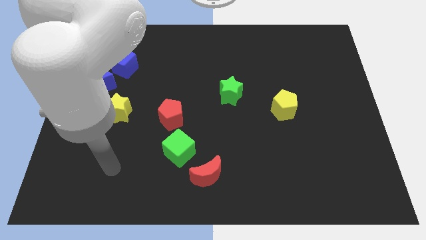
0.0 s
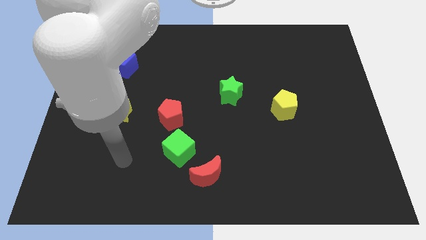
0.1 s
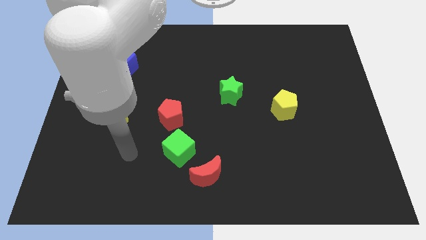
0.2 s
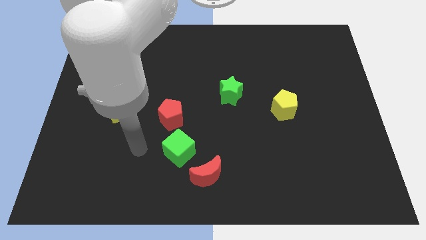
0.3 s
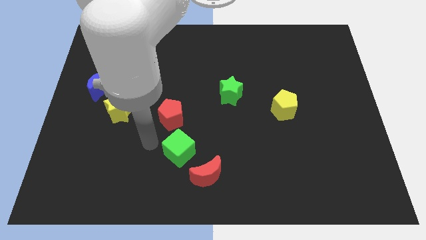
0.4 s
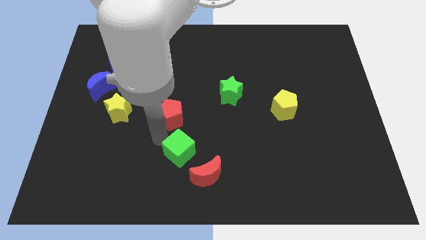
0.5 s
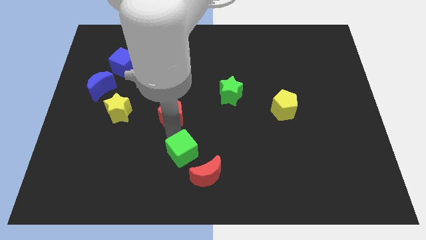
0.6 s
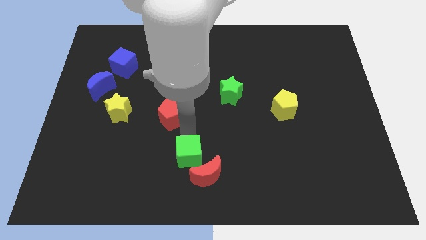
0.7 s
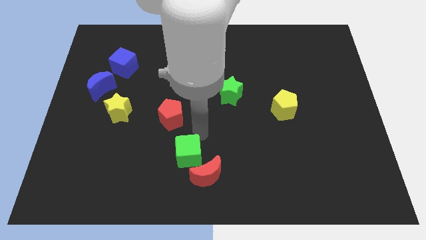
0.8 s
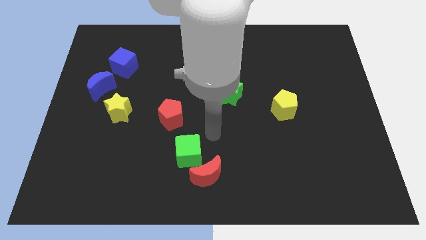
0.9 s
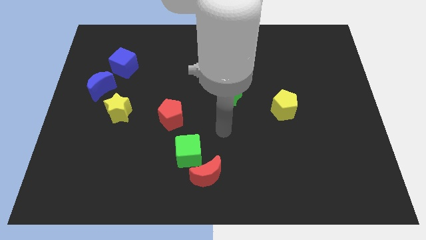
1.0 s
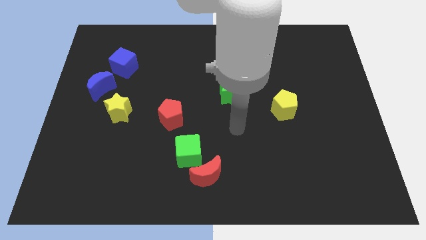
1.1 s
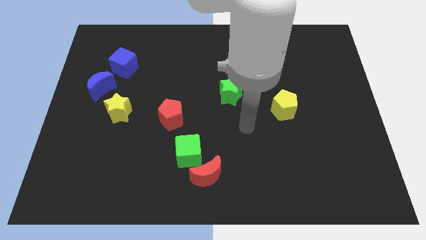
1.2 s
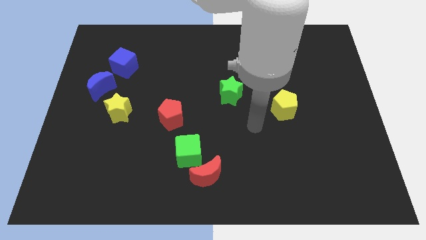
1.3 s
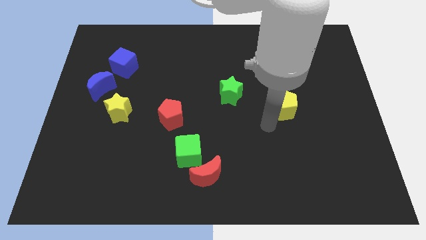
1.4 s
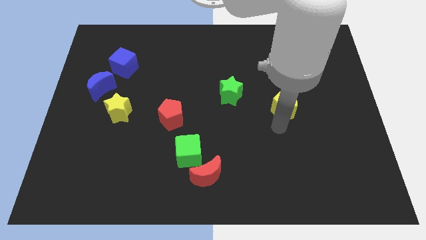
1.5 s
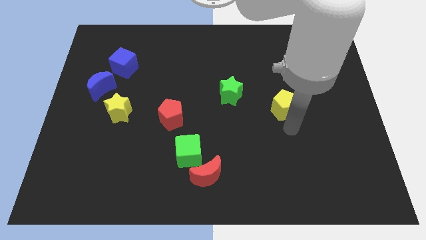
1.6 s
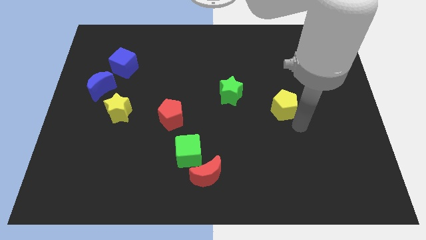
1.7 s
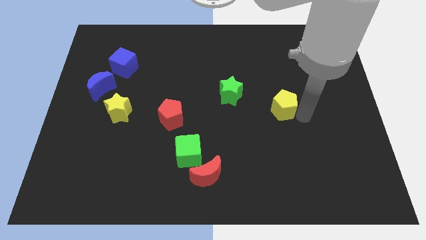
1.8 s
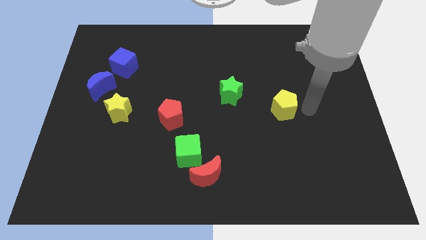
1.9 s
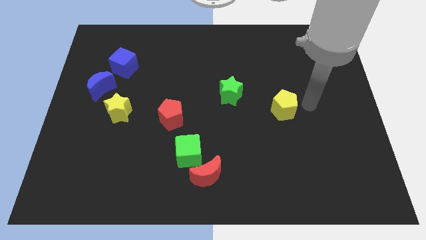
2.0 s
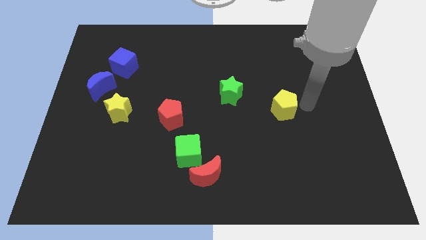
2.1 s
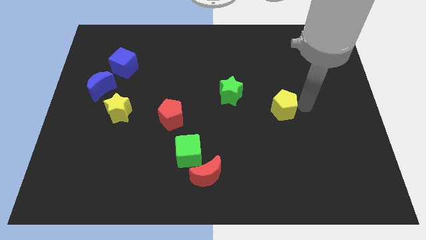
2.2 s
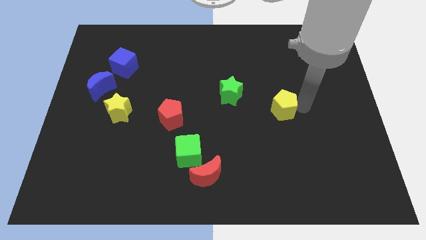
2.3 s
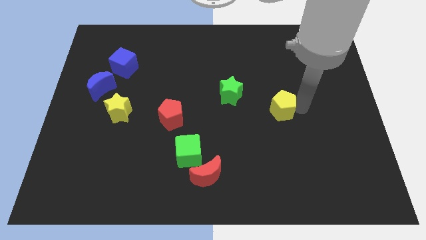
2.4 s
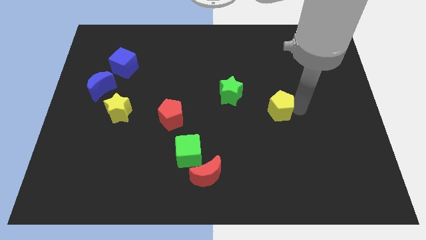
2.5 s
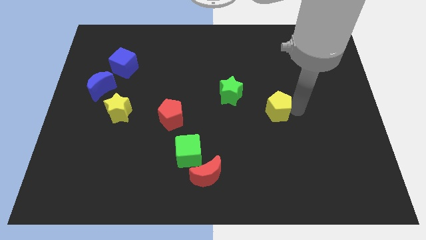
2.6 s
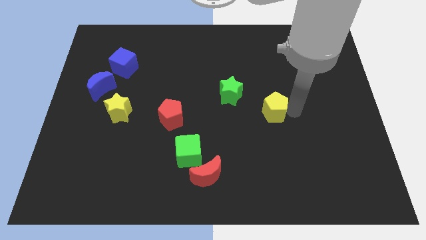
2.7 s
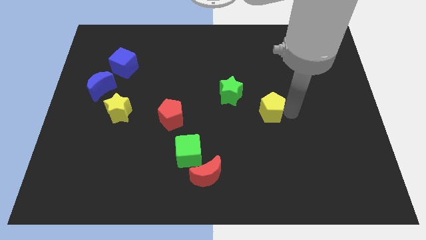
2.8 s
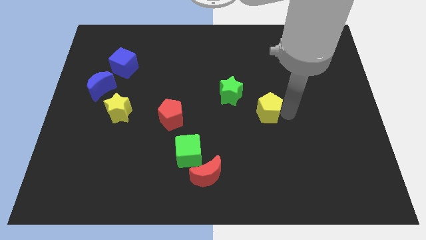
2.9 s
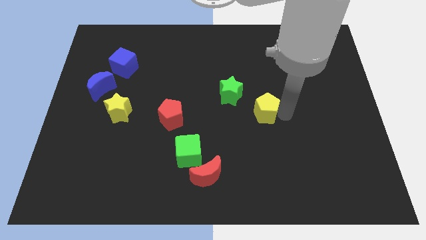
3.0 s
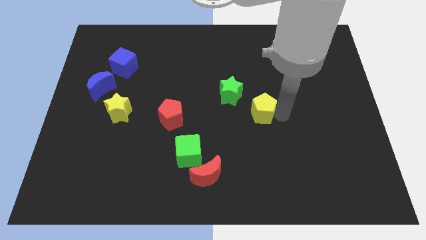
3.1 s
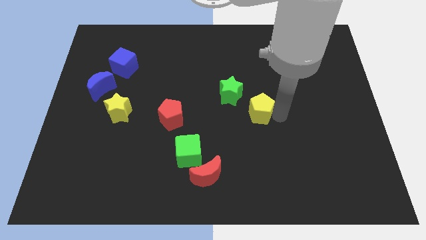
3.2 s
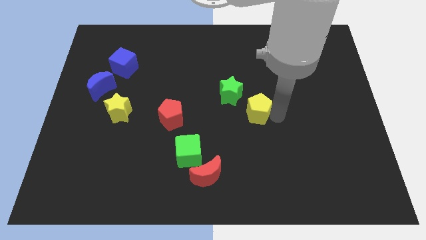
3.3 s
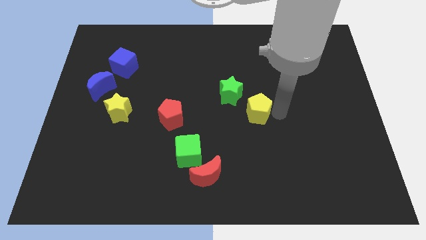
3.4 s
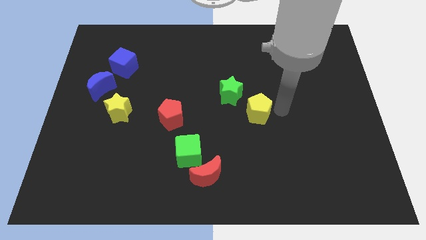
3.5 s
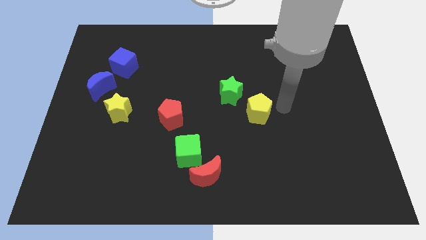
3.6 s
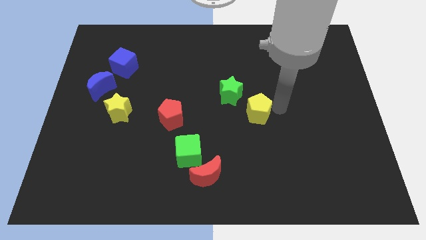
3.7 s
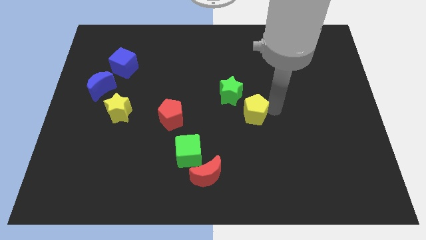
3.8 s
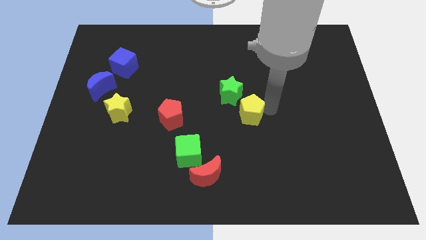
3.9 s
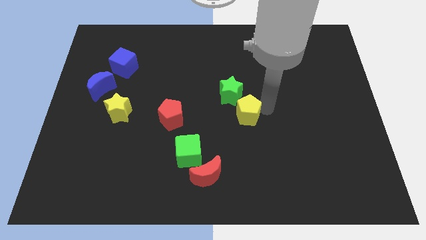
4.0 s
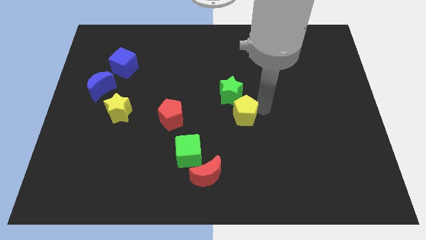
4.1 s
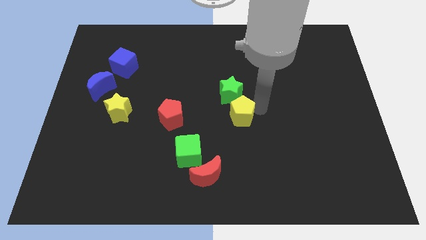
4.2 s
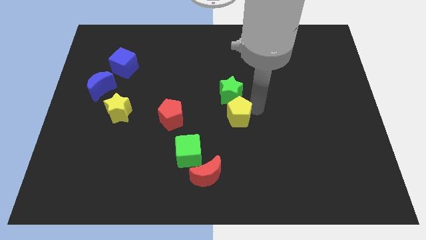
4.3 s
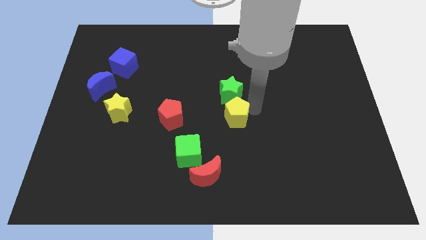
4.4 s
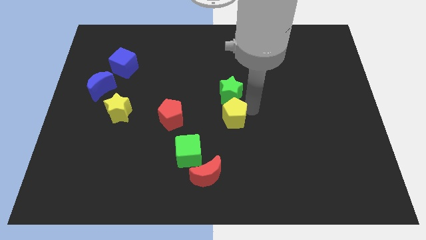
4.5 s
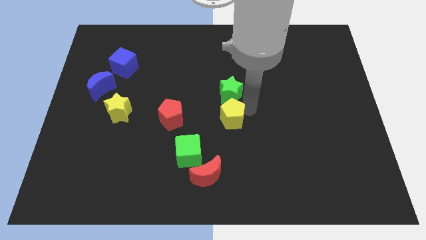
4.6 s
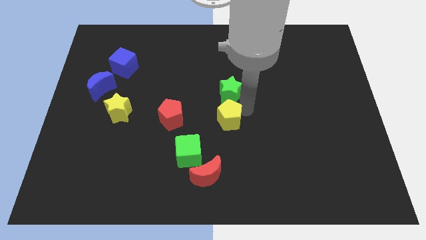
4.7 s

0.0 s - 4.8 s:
slide the yellow pentagon to the top right side of the green cube

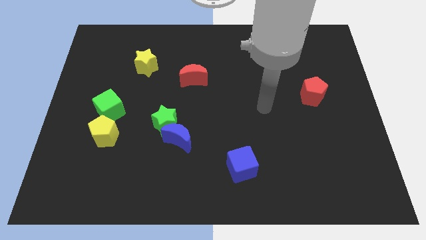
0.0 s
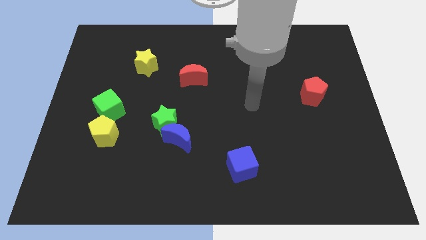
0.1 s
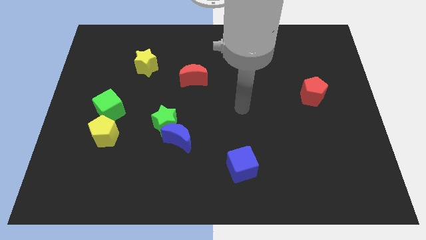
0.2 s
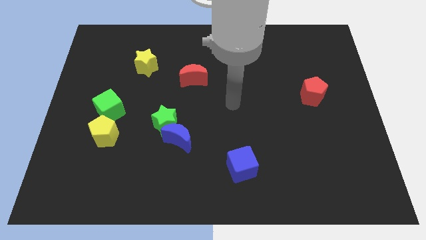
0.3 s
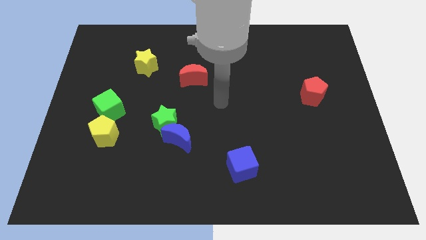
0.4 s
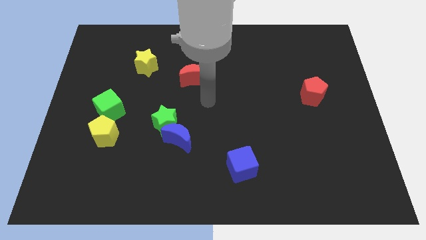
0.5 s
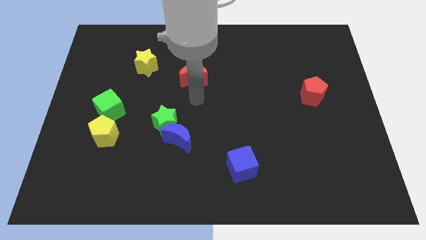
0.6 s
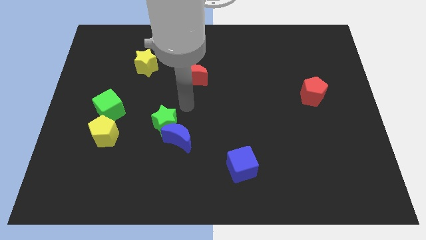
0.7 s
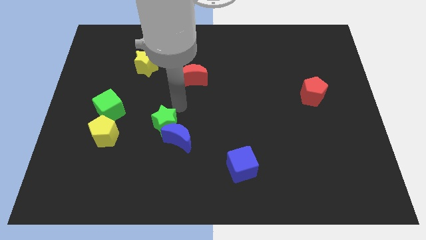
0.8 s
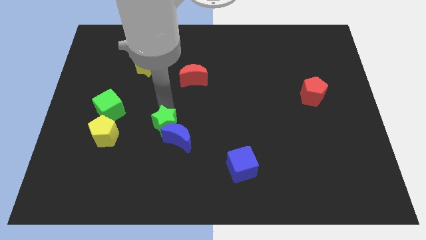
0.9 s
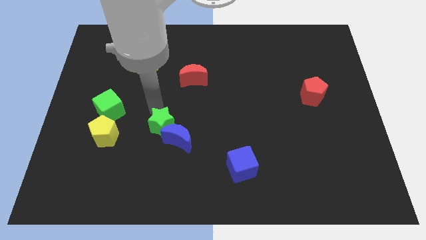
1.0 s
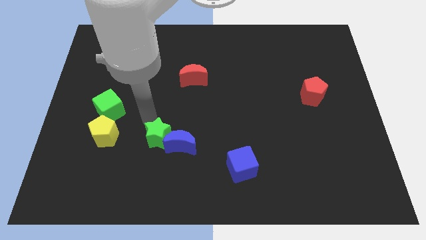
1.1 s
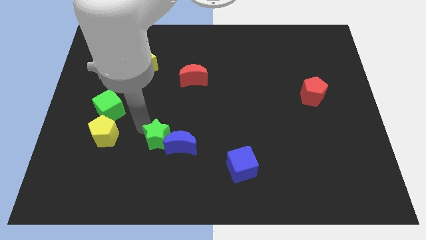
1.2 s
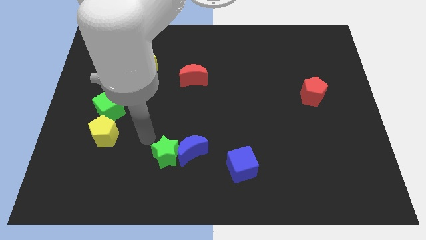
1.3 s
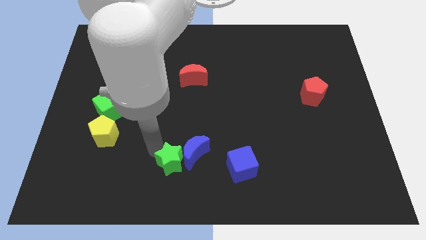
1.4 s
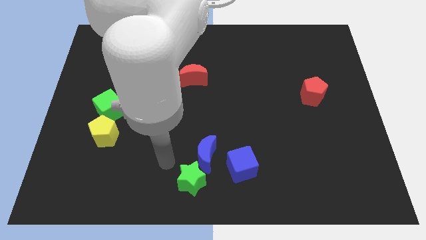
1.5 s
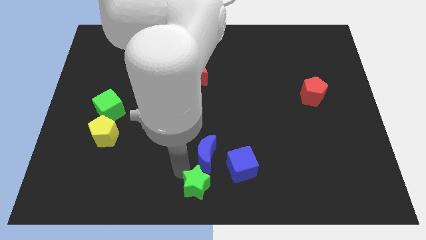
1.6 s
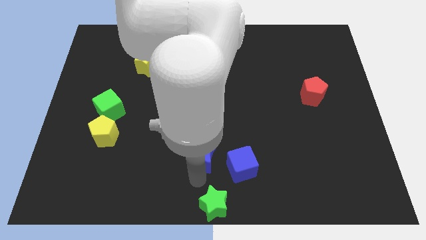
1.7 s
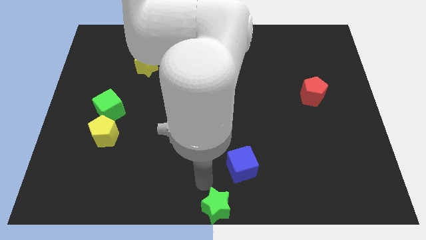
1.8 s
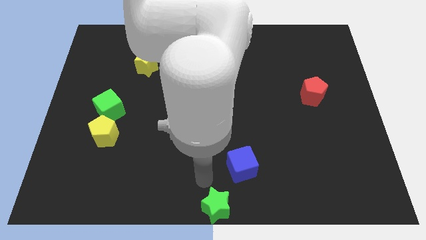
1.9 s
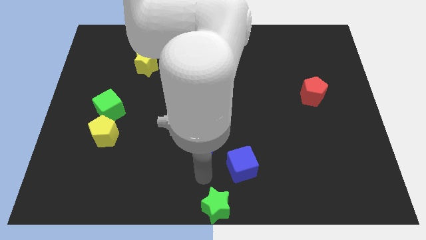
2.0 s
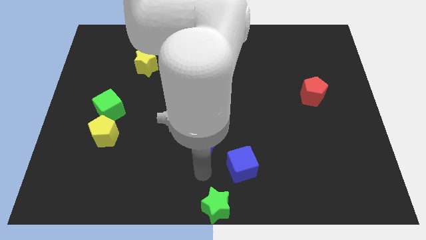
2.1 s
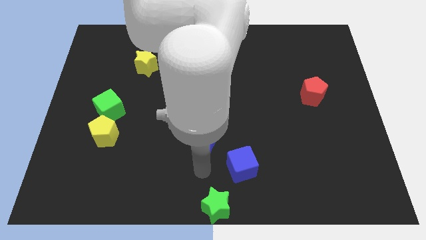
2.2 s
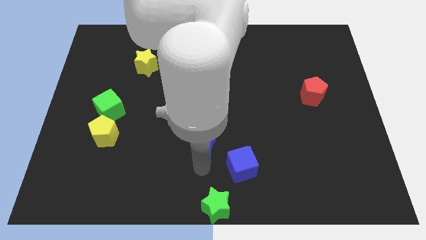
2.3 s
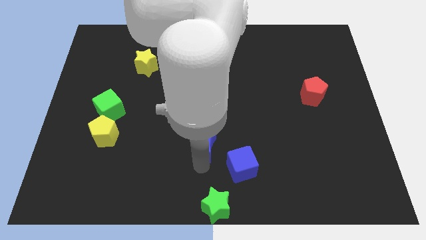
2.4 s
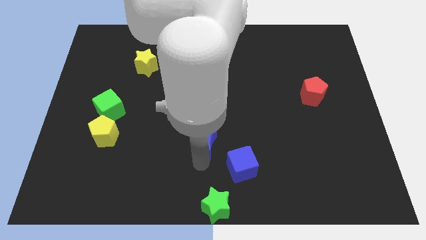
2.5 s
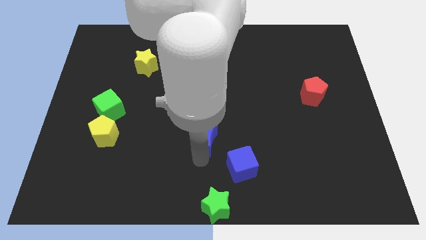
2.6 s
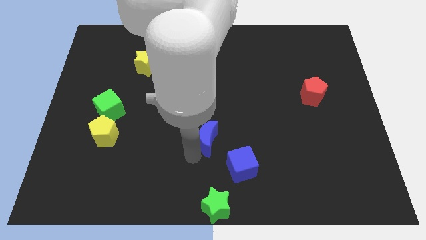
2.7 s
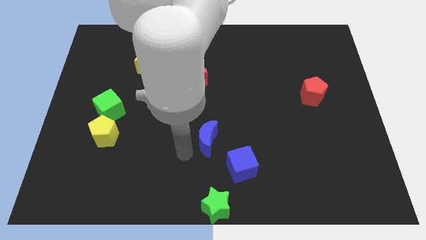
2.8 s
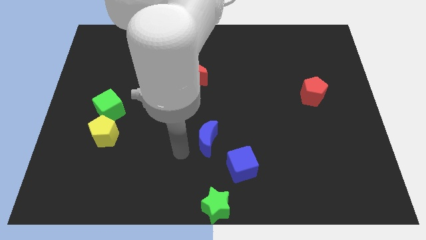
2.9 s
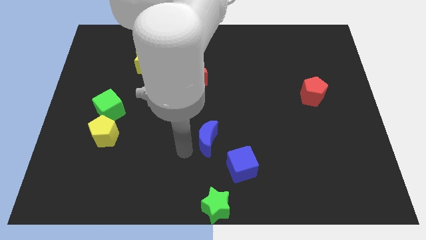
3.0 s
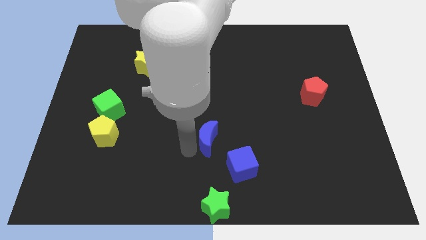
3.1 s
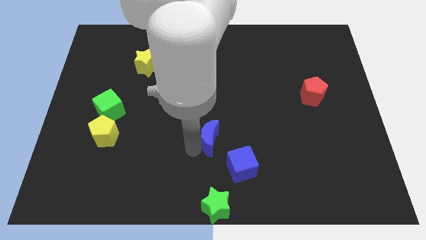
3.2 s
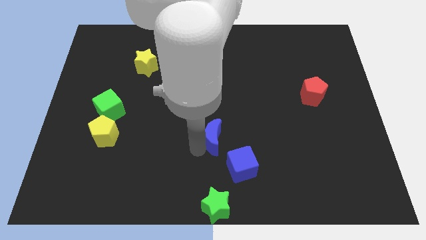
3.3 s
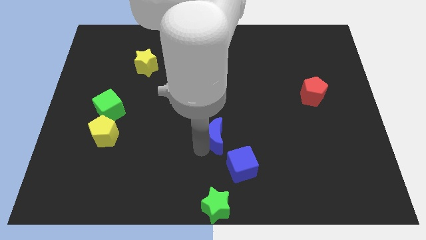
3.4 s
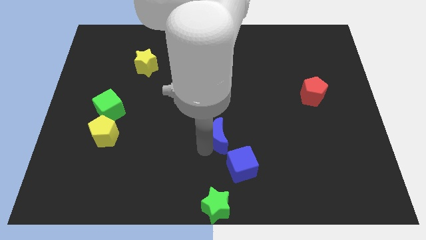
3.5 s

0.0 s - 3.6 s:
push the blue moon to the top of the blue cube
